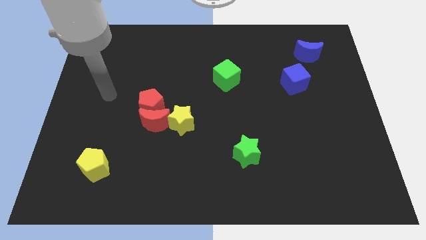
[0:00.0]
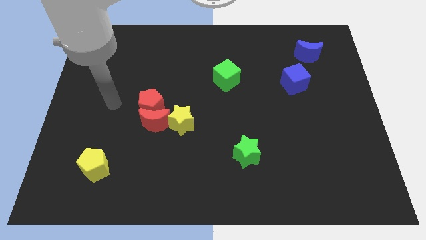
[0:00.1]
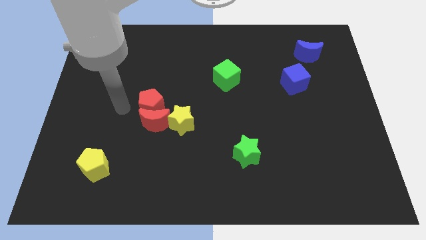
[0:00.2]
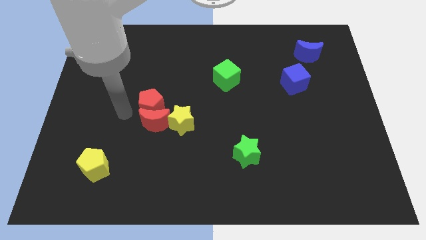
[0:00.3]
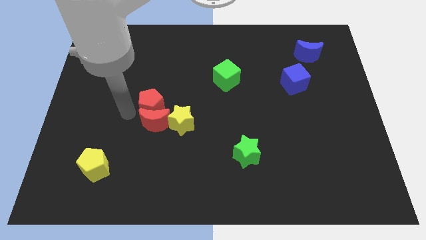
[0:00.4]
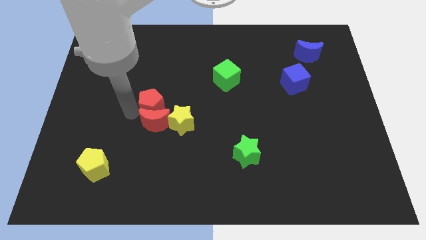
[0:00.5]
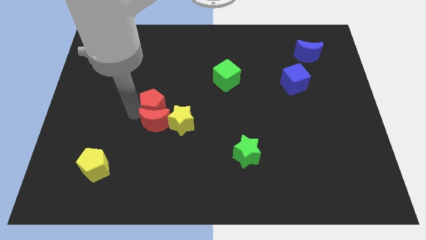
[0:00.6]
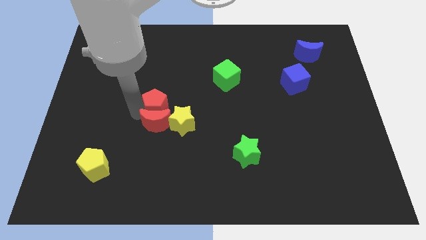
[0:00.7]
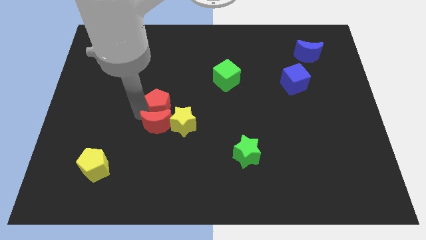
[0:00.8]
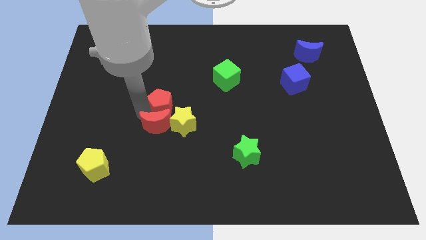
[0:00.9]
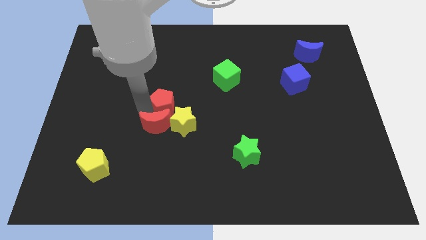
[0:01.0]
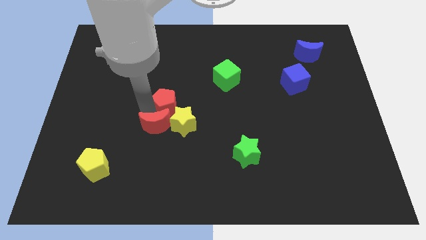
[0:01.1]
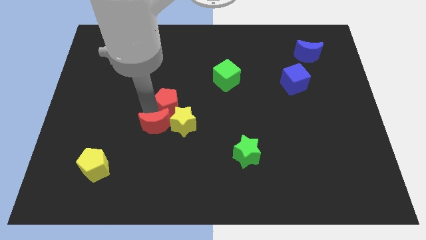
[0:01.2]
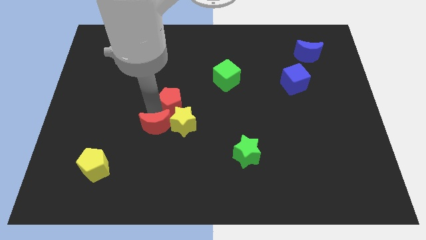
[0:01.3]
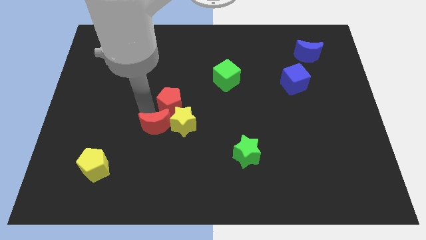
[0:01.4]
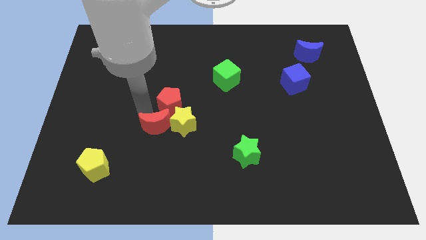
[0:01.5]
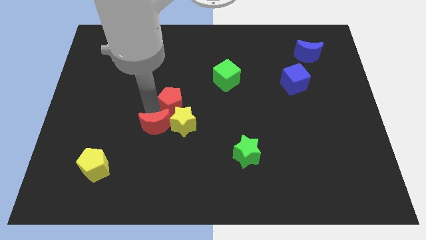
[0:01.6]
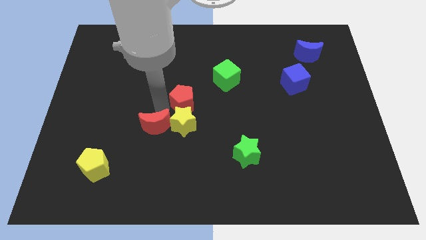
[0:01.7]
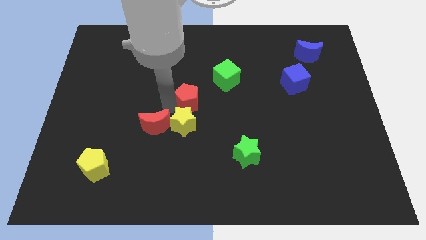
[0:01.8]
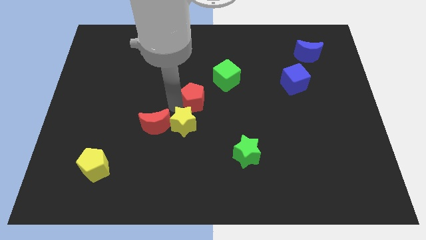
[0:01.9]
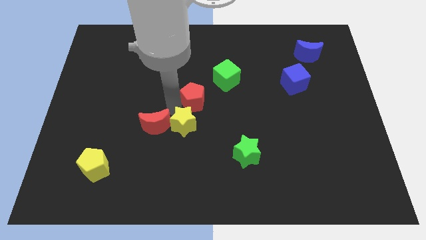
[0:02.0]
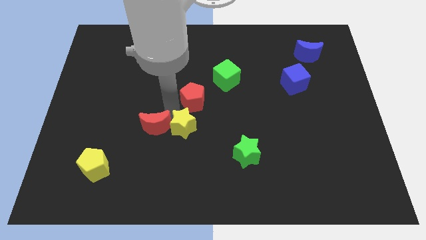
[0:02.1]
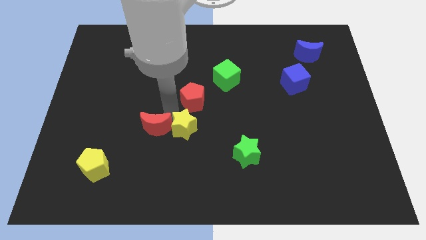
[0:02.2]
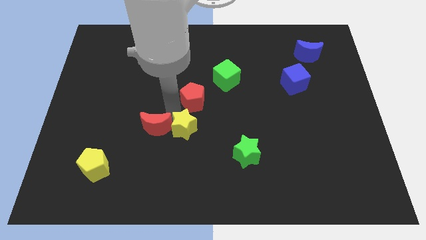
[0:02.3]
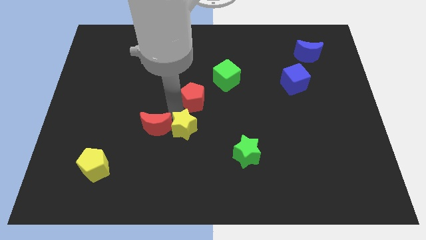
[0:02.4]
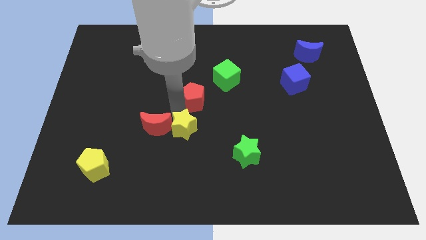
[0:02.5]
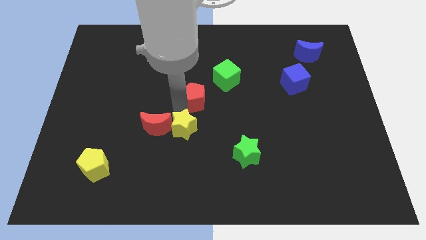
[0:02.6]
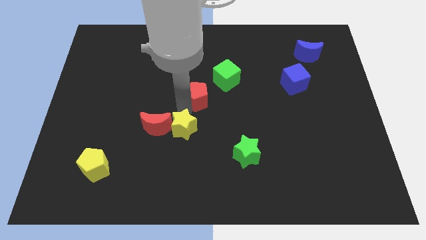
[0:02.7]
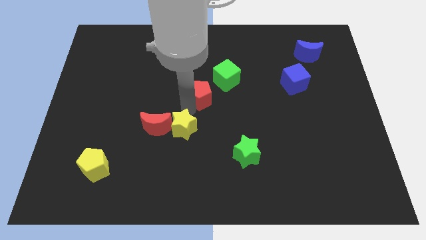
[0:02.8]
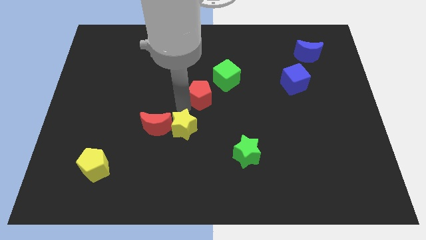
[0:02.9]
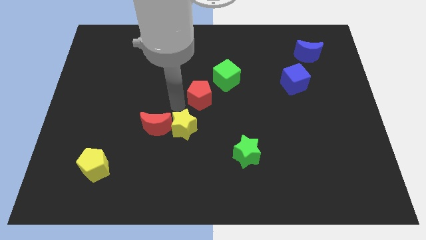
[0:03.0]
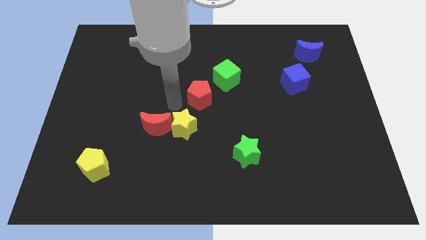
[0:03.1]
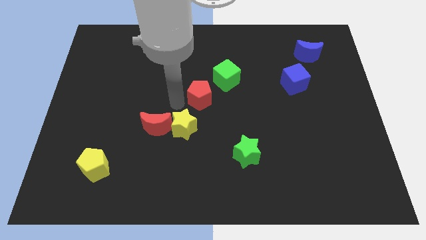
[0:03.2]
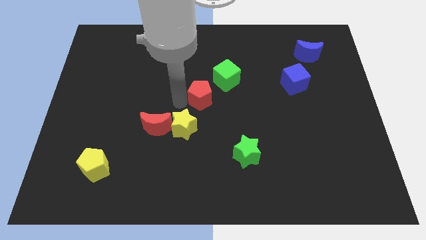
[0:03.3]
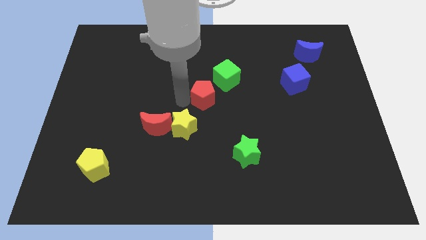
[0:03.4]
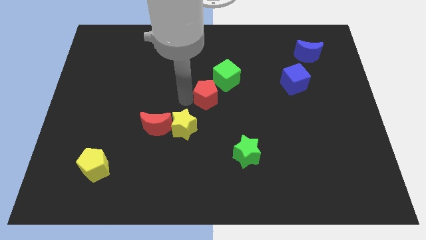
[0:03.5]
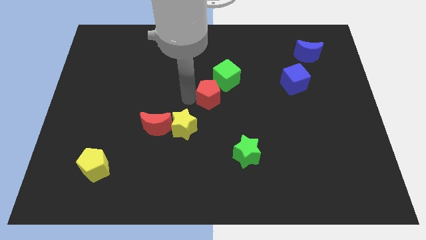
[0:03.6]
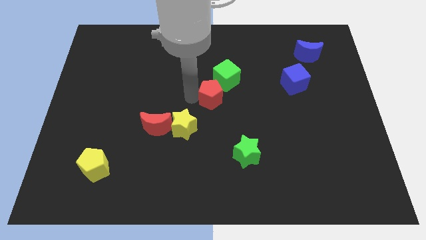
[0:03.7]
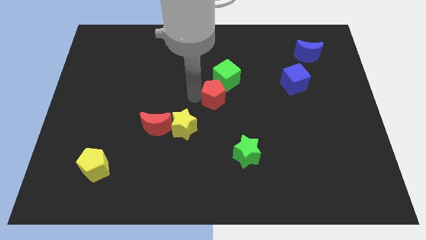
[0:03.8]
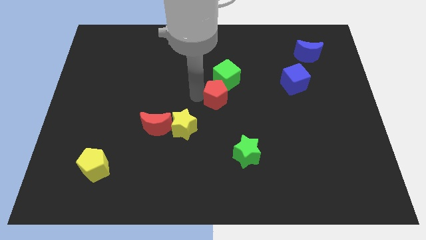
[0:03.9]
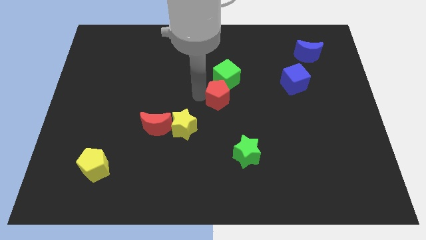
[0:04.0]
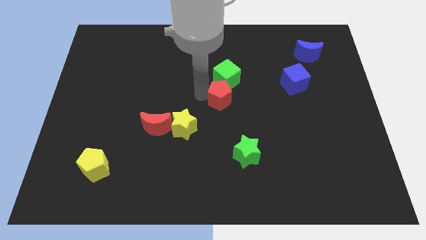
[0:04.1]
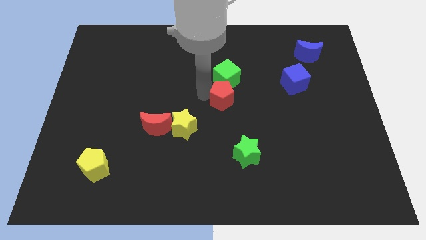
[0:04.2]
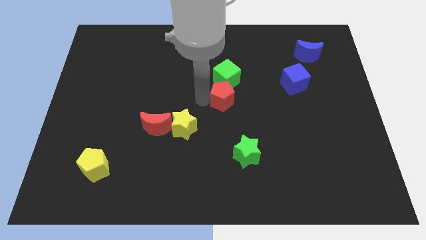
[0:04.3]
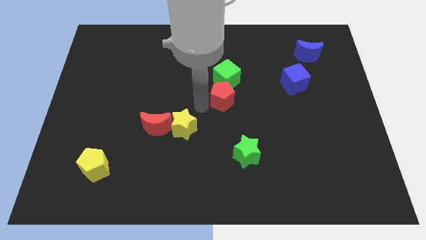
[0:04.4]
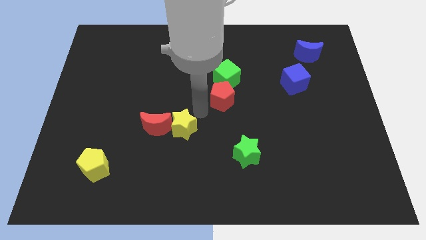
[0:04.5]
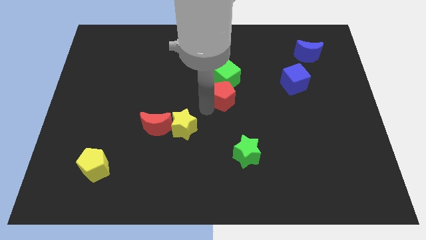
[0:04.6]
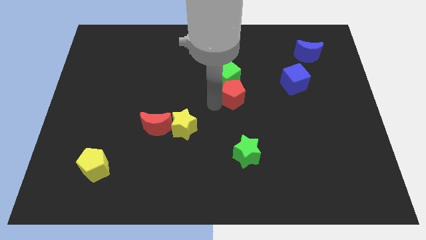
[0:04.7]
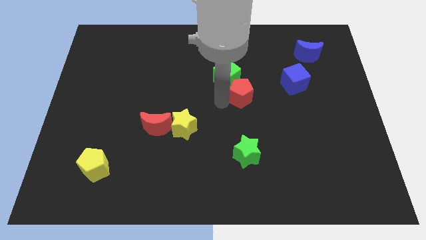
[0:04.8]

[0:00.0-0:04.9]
push the red pentagon to the left side of the blue cube

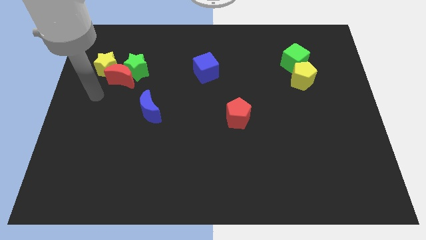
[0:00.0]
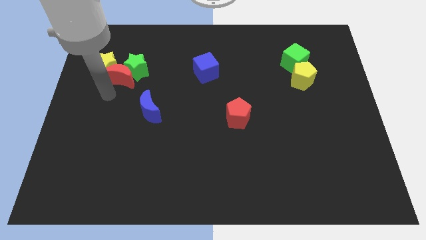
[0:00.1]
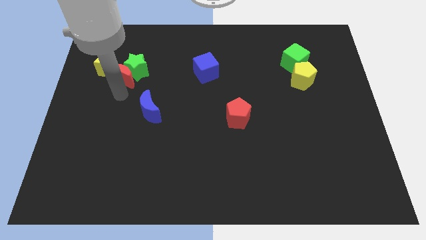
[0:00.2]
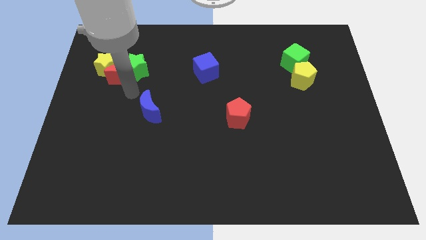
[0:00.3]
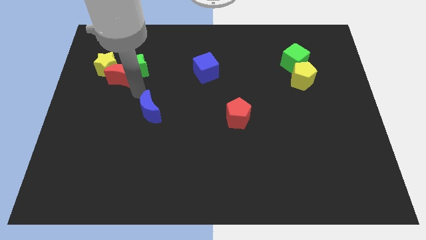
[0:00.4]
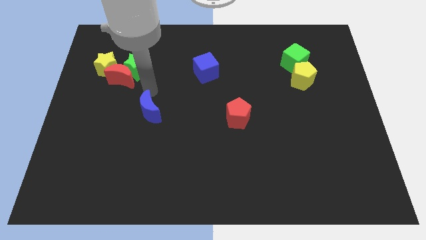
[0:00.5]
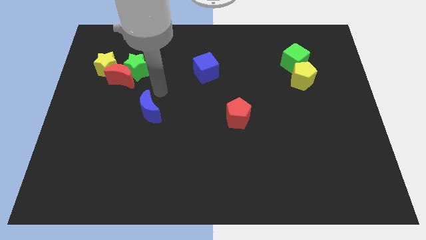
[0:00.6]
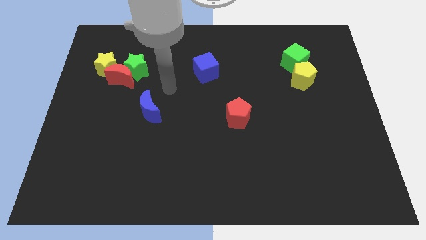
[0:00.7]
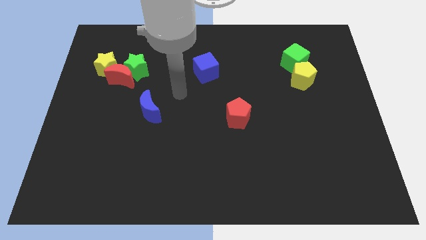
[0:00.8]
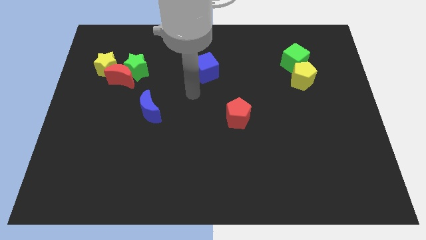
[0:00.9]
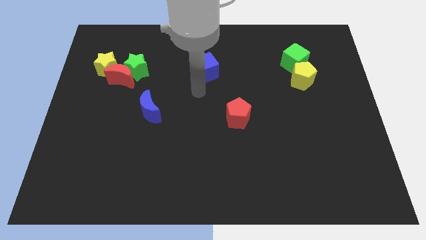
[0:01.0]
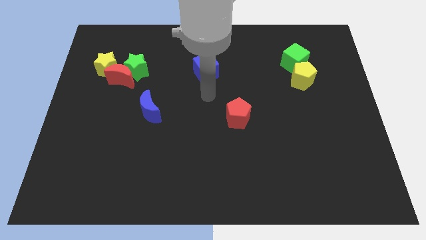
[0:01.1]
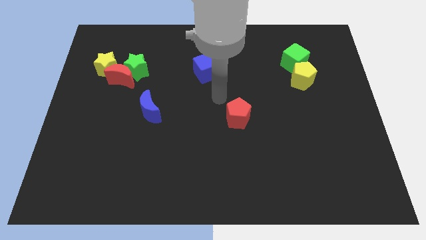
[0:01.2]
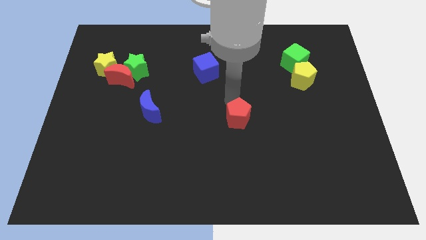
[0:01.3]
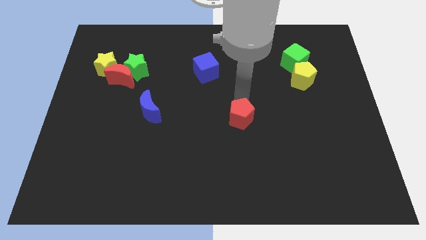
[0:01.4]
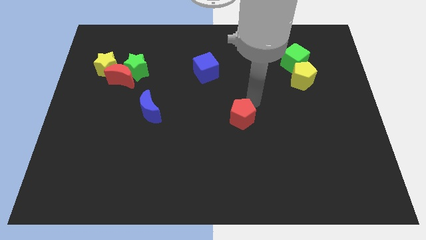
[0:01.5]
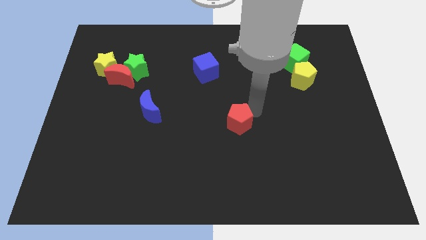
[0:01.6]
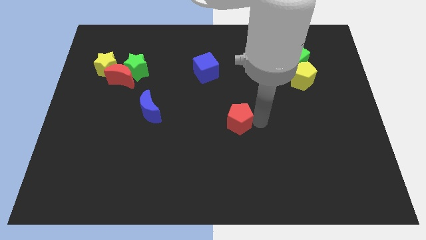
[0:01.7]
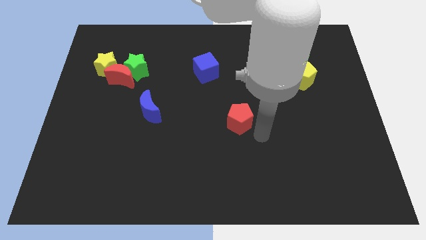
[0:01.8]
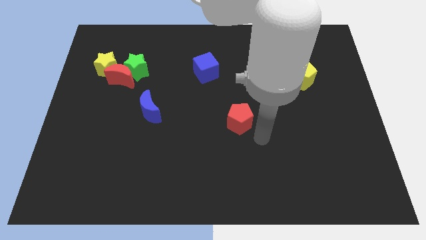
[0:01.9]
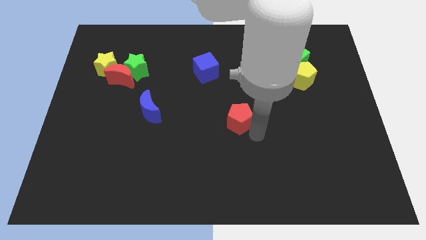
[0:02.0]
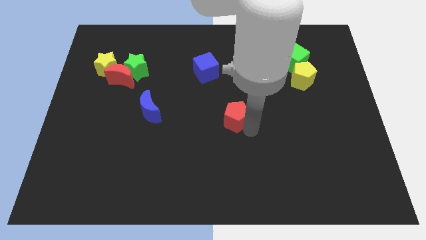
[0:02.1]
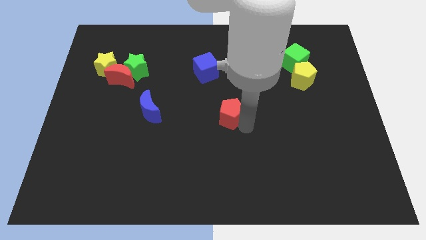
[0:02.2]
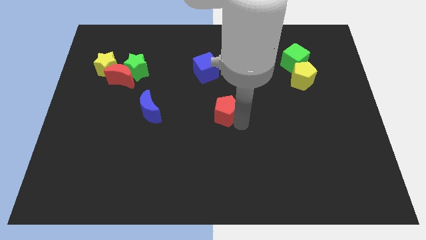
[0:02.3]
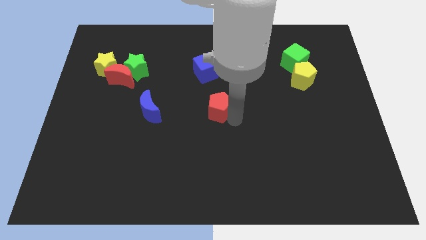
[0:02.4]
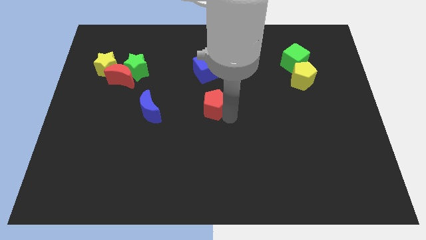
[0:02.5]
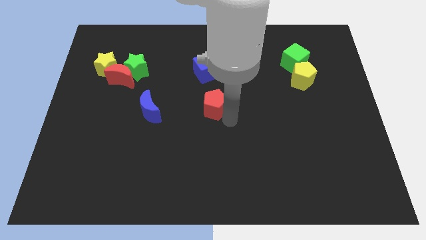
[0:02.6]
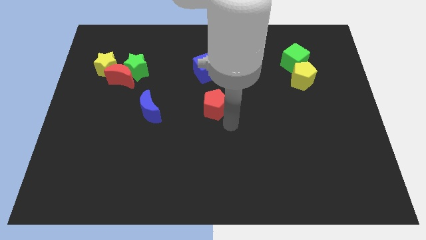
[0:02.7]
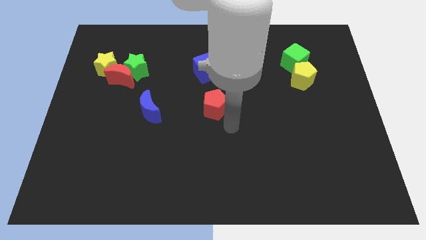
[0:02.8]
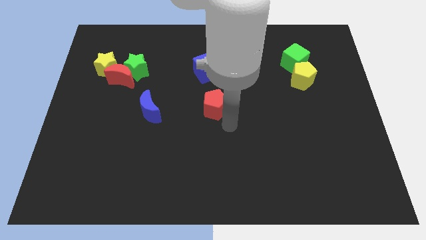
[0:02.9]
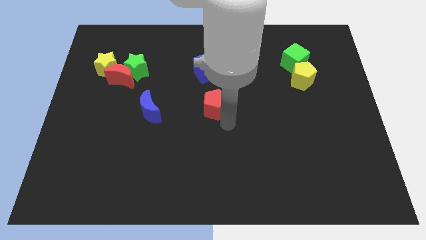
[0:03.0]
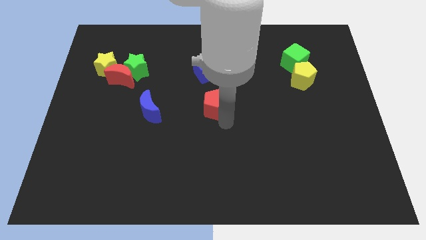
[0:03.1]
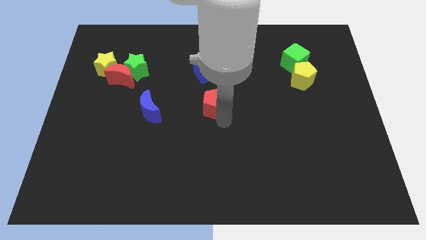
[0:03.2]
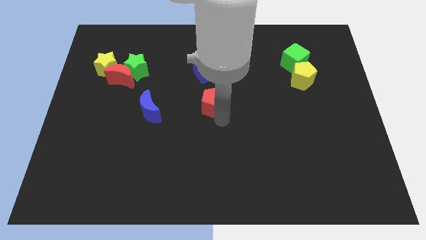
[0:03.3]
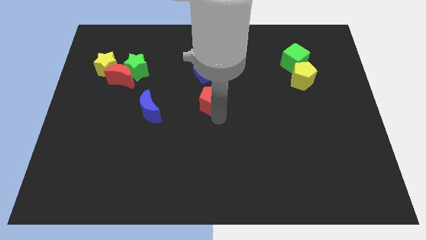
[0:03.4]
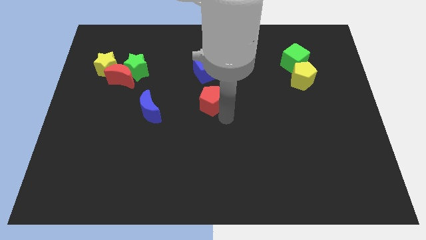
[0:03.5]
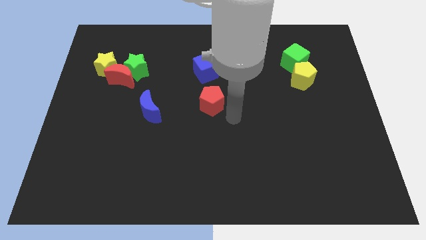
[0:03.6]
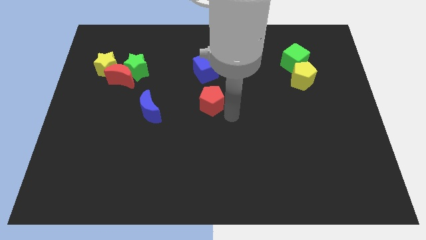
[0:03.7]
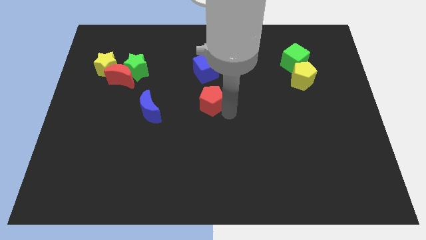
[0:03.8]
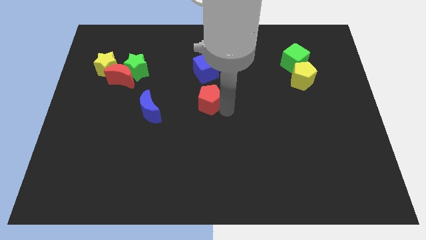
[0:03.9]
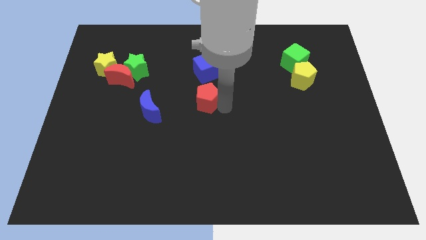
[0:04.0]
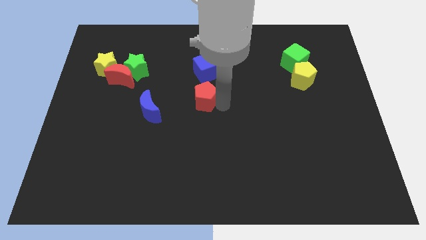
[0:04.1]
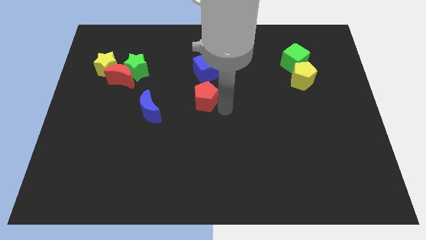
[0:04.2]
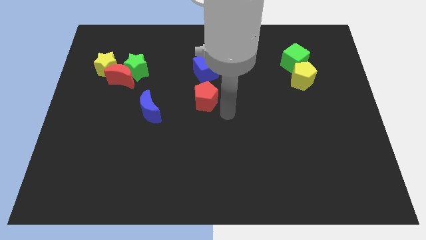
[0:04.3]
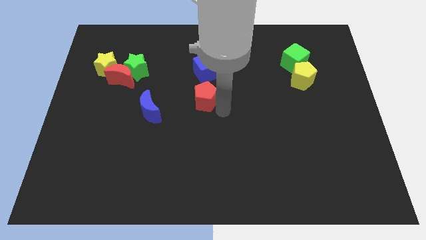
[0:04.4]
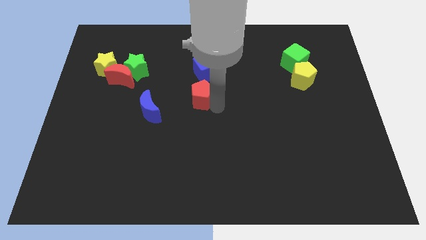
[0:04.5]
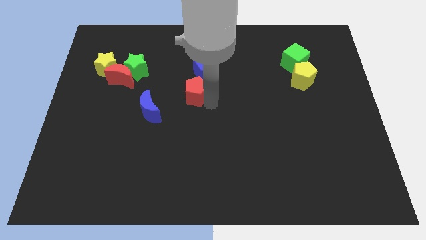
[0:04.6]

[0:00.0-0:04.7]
slide the red pentagon diagonally down and to the left of the blue cube
